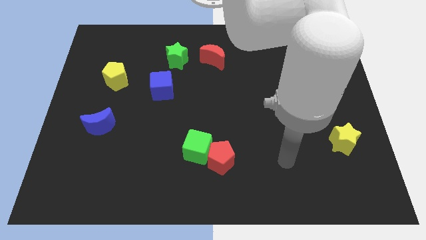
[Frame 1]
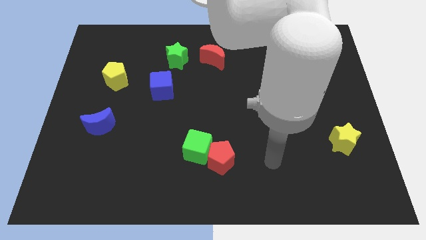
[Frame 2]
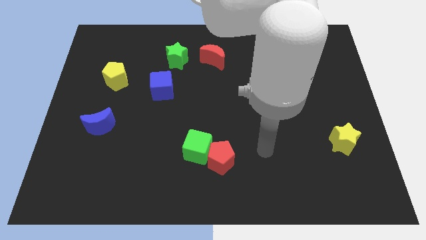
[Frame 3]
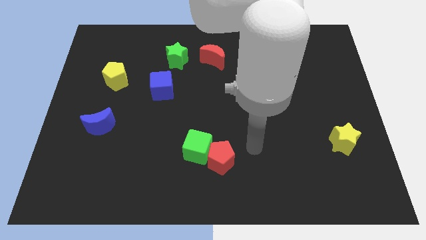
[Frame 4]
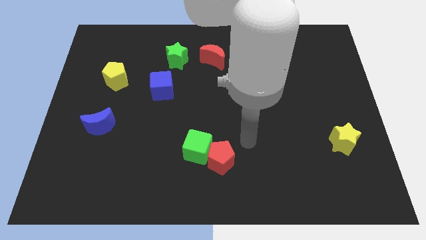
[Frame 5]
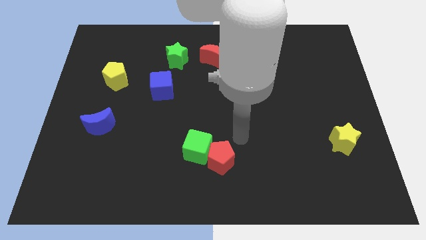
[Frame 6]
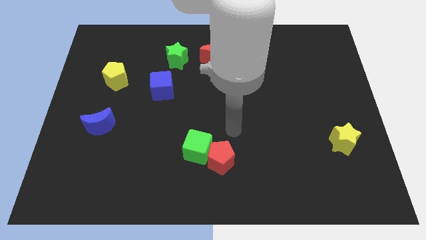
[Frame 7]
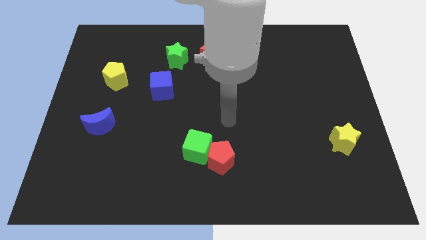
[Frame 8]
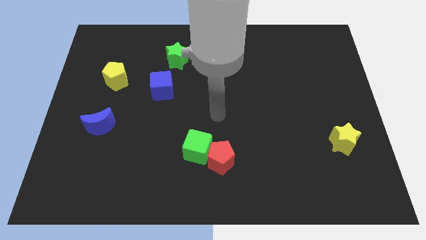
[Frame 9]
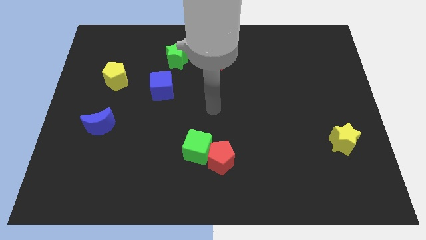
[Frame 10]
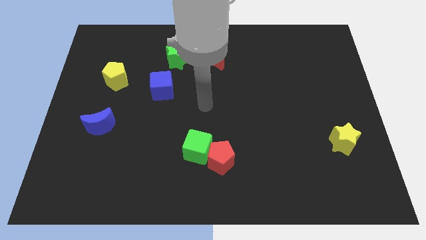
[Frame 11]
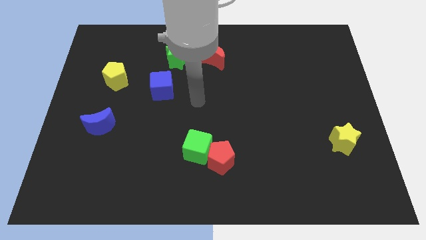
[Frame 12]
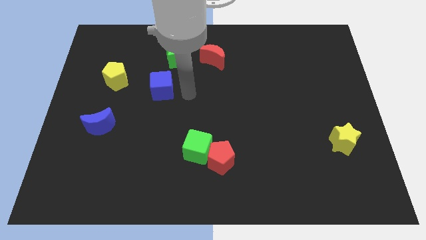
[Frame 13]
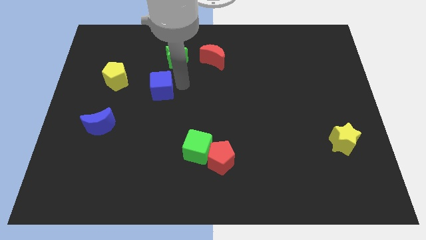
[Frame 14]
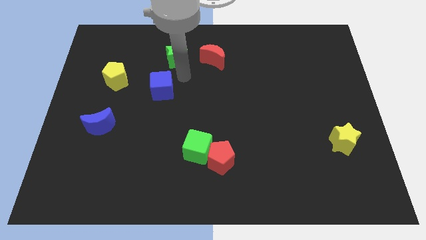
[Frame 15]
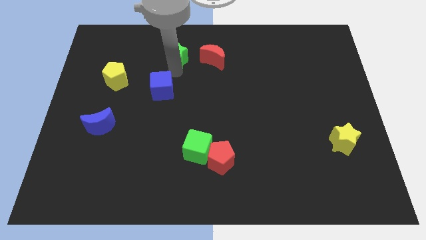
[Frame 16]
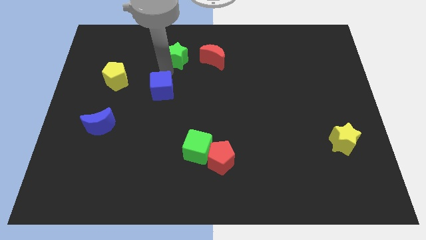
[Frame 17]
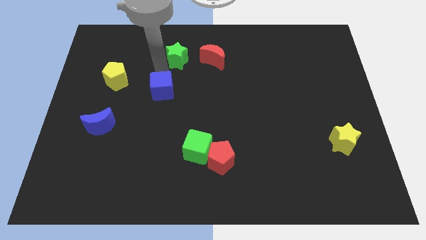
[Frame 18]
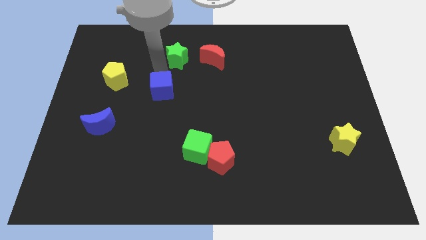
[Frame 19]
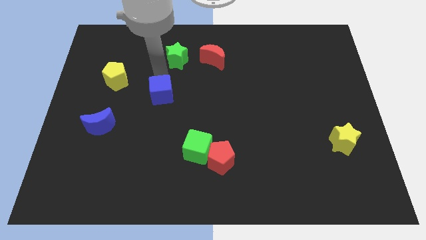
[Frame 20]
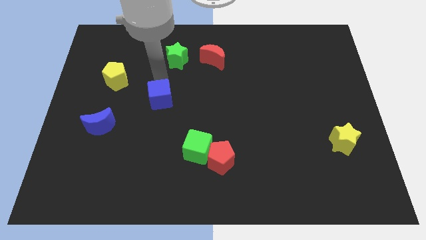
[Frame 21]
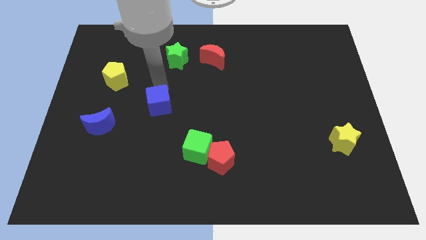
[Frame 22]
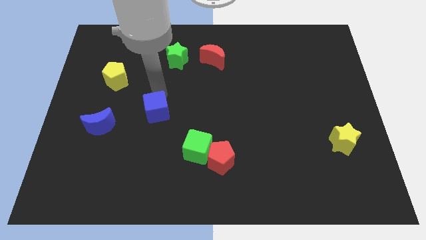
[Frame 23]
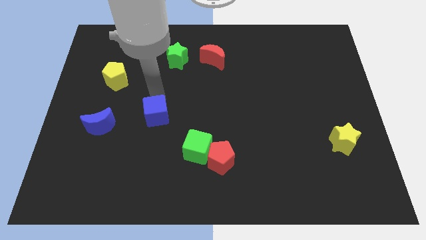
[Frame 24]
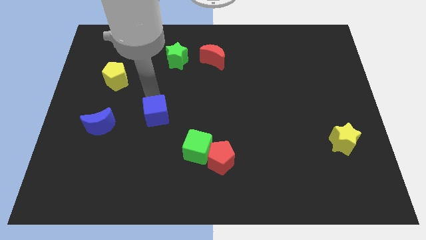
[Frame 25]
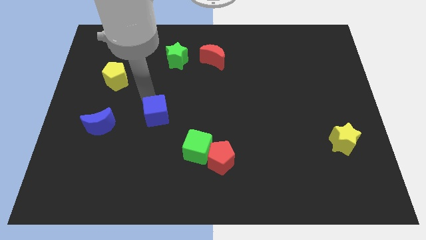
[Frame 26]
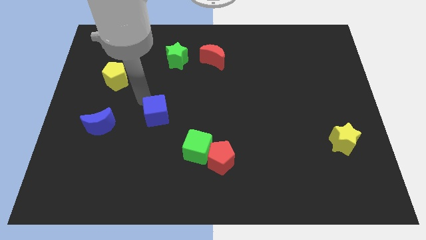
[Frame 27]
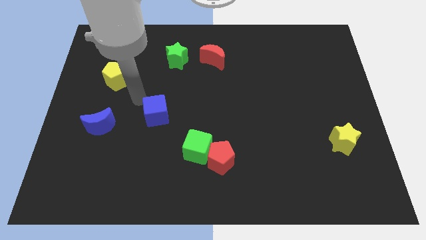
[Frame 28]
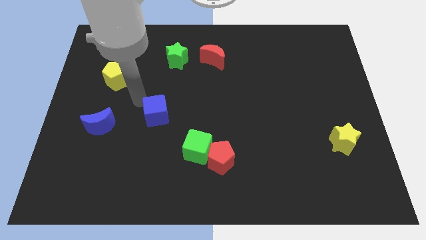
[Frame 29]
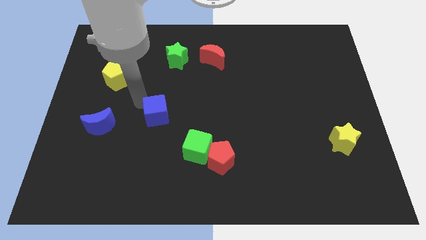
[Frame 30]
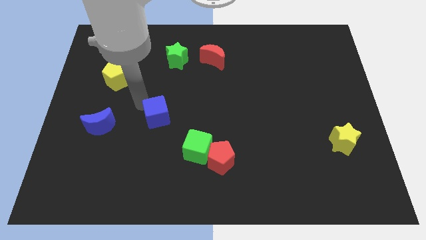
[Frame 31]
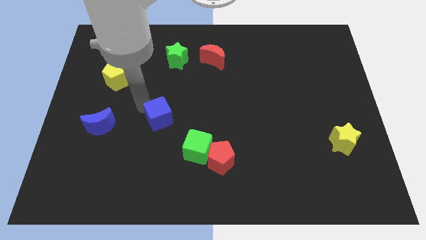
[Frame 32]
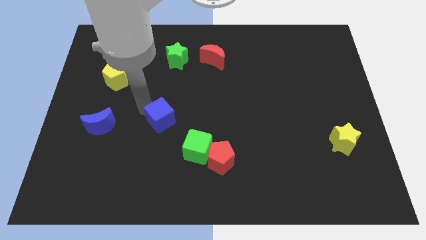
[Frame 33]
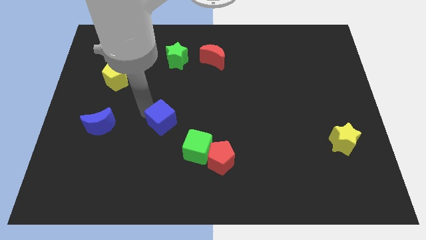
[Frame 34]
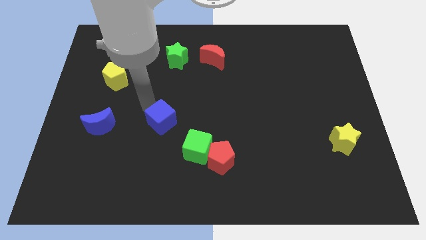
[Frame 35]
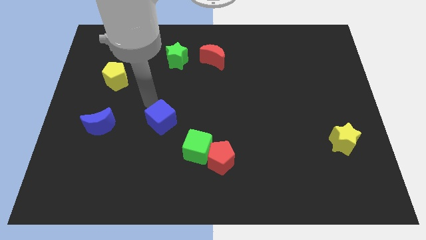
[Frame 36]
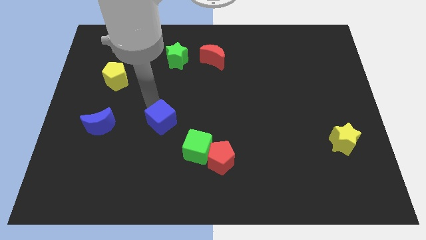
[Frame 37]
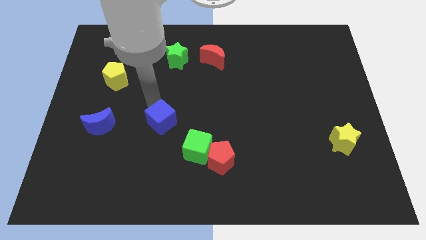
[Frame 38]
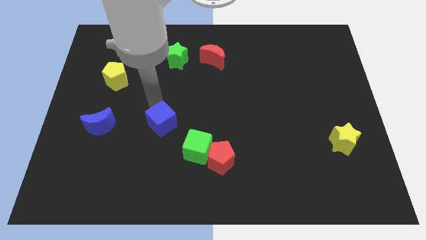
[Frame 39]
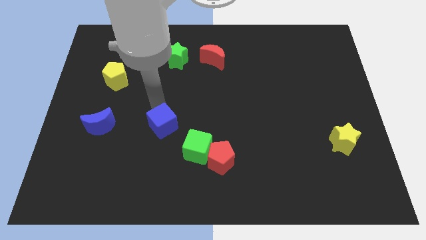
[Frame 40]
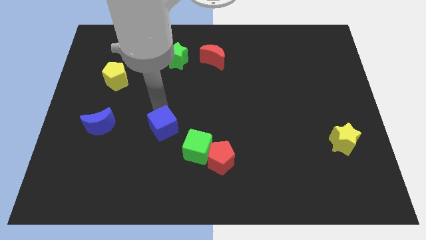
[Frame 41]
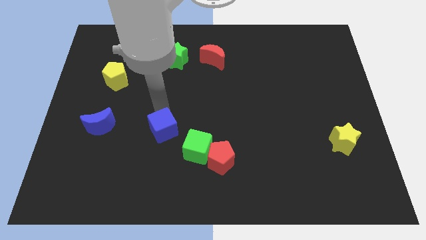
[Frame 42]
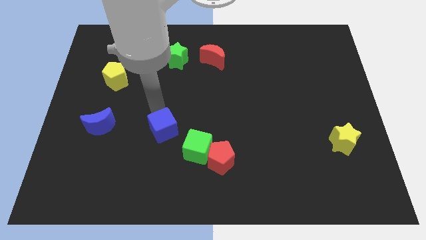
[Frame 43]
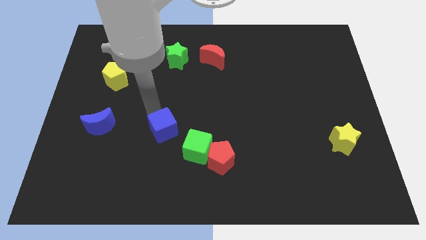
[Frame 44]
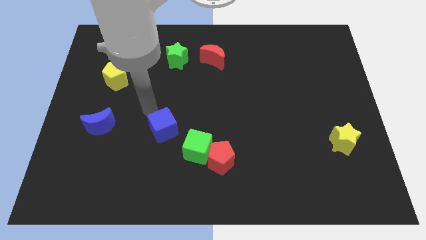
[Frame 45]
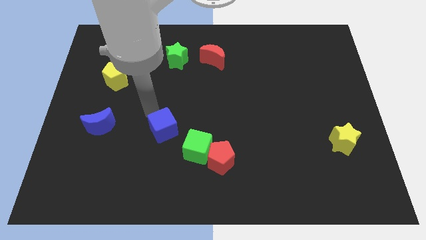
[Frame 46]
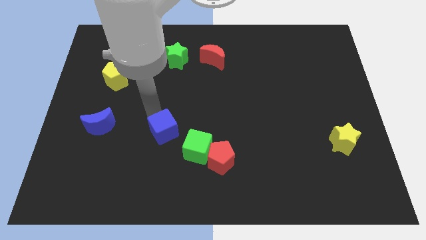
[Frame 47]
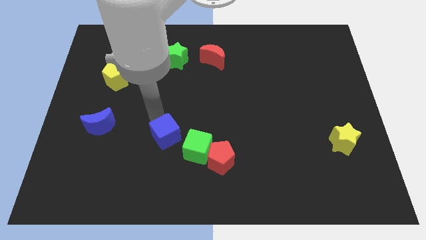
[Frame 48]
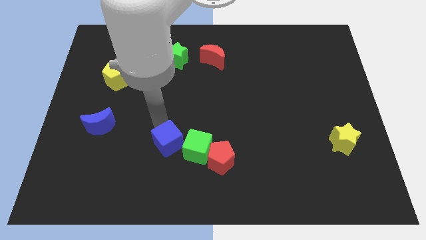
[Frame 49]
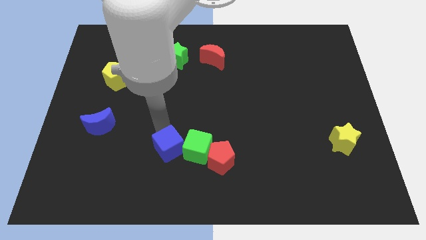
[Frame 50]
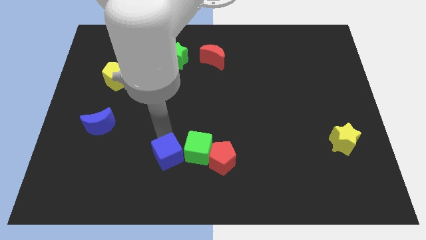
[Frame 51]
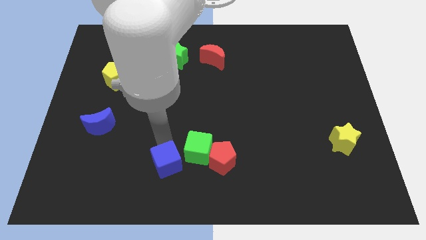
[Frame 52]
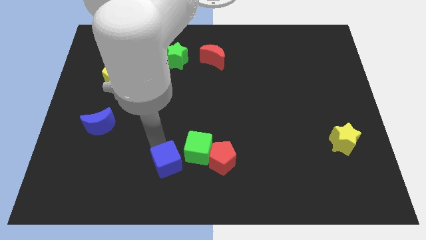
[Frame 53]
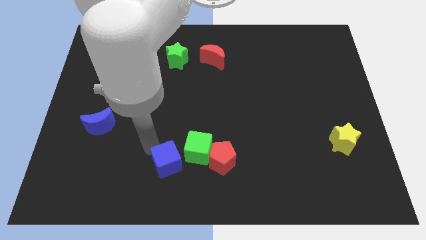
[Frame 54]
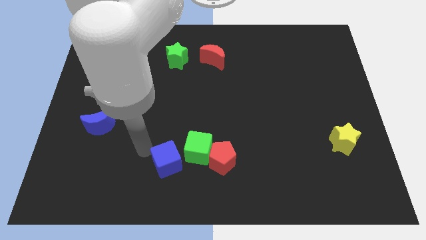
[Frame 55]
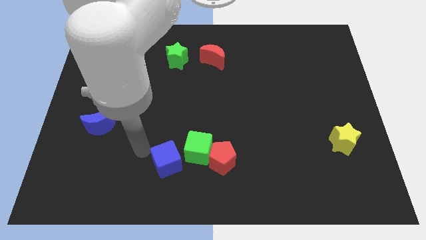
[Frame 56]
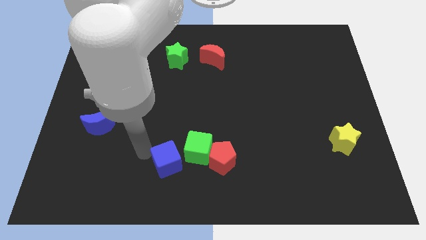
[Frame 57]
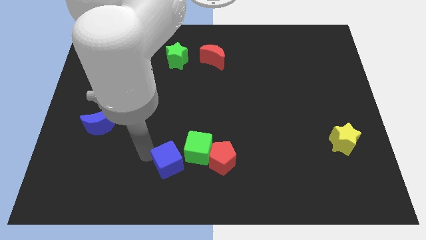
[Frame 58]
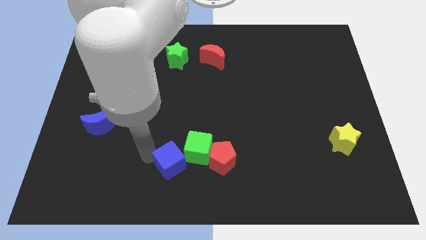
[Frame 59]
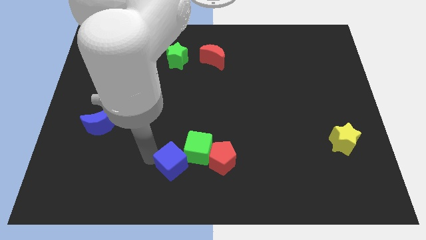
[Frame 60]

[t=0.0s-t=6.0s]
slide the blue cube to the bottom side

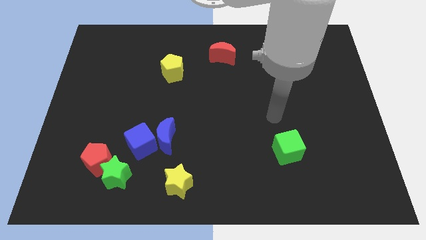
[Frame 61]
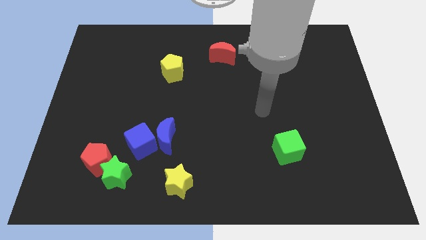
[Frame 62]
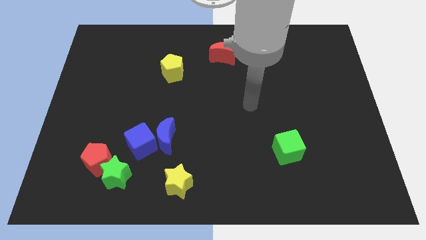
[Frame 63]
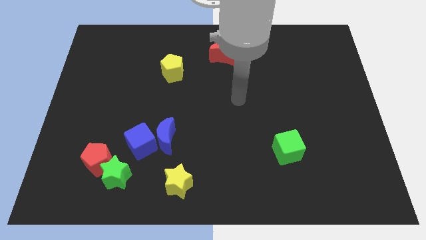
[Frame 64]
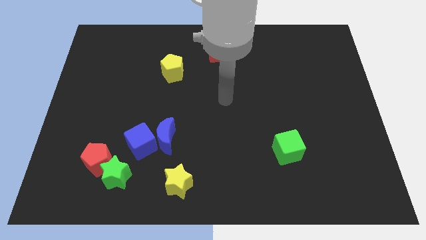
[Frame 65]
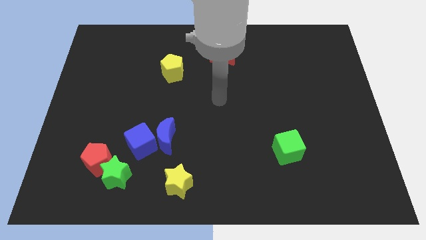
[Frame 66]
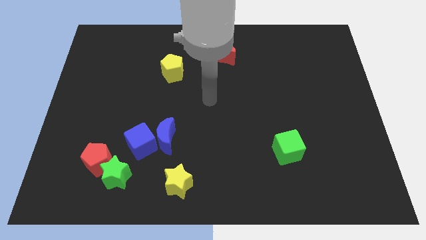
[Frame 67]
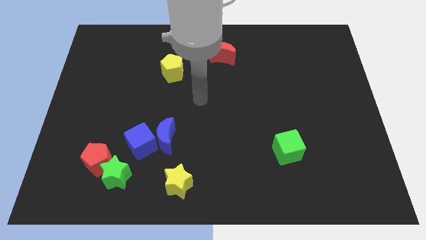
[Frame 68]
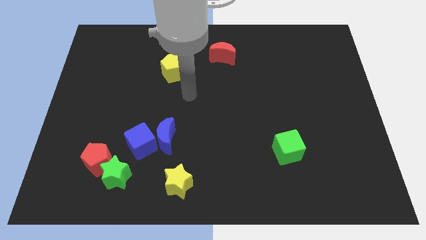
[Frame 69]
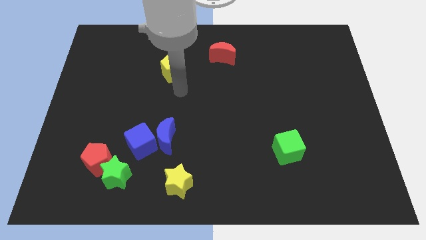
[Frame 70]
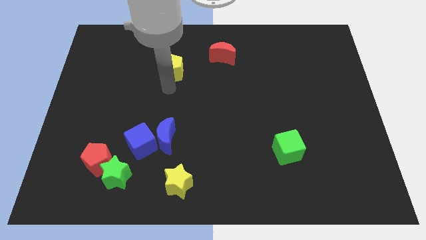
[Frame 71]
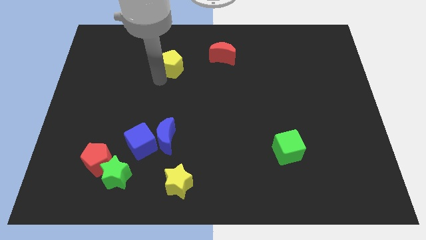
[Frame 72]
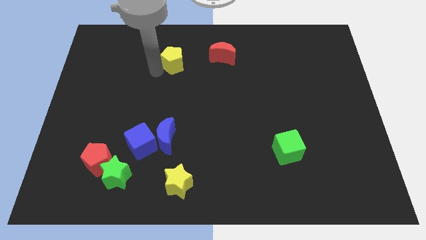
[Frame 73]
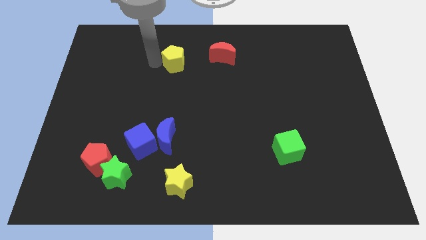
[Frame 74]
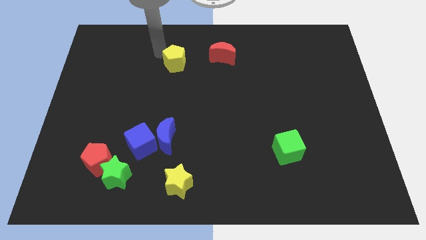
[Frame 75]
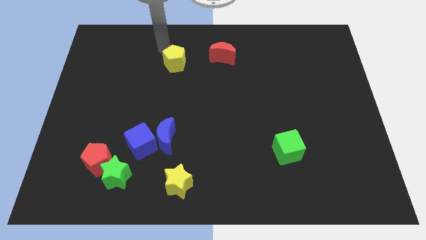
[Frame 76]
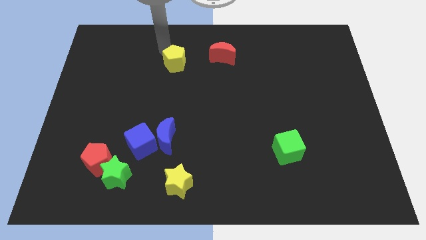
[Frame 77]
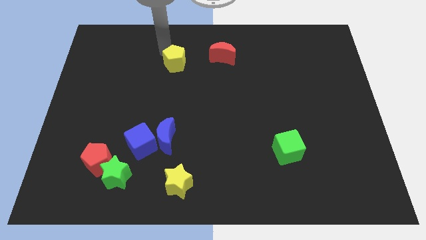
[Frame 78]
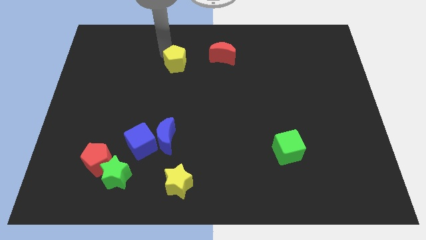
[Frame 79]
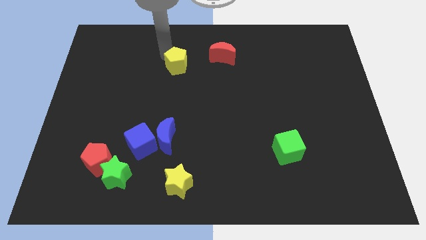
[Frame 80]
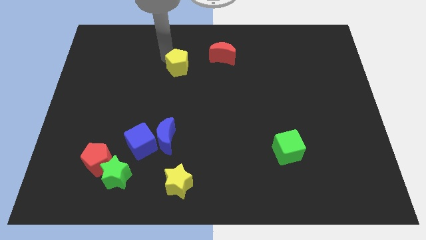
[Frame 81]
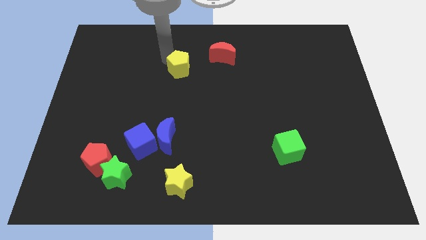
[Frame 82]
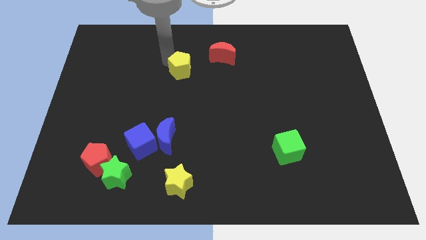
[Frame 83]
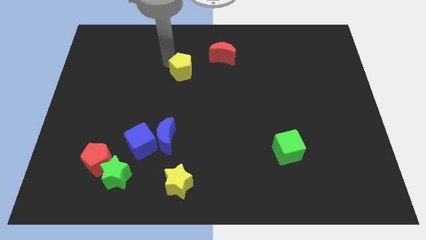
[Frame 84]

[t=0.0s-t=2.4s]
move the yellow pentagon to the center of the board
